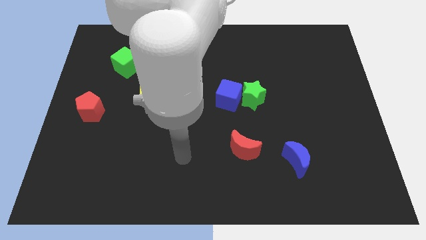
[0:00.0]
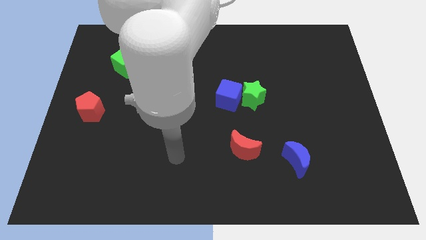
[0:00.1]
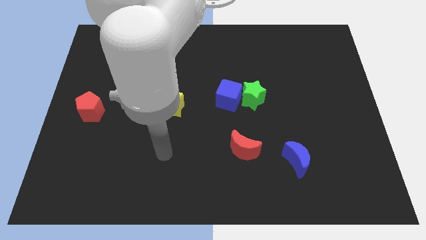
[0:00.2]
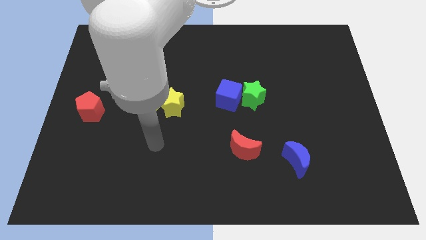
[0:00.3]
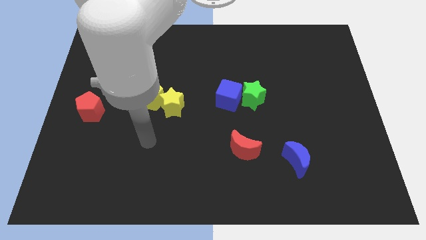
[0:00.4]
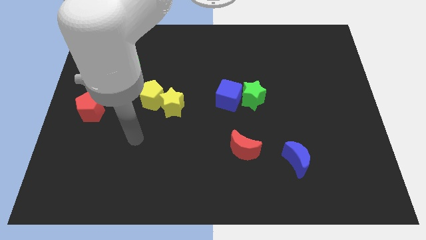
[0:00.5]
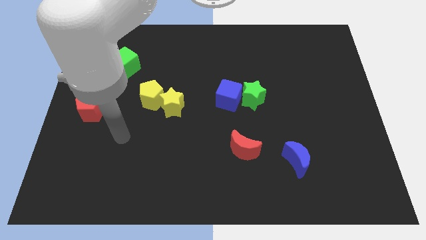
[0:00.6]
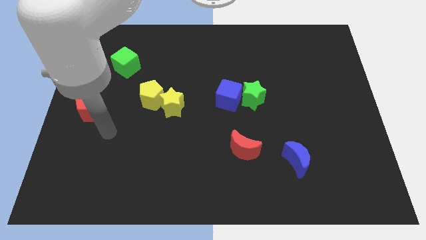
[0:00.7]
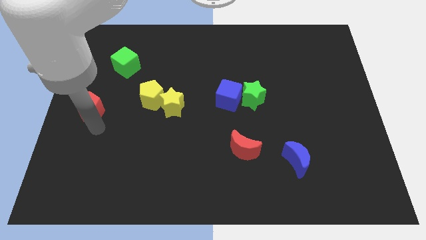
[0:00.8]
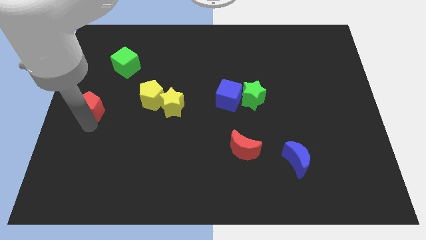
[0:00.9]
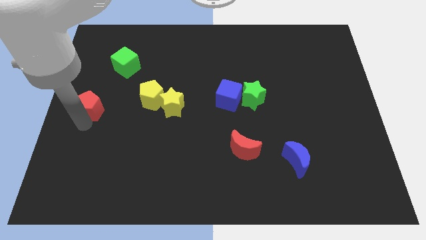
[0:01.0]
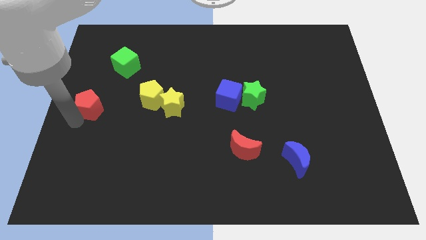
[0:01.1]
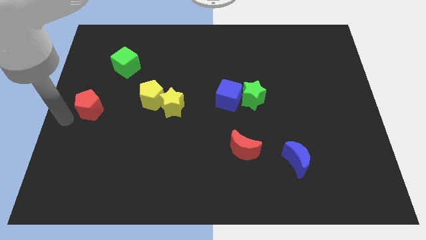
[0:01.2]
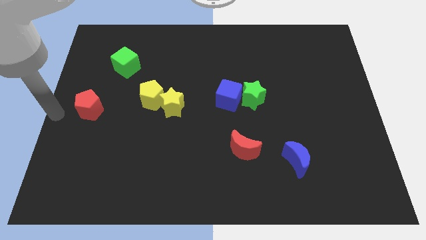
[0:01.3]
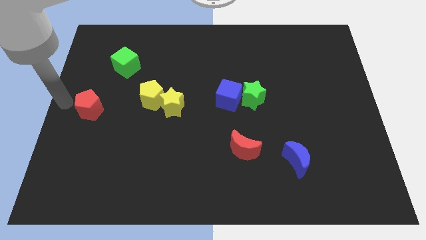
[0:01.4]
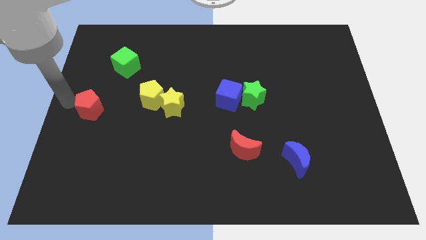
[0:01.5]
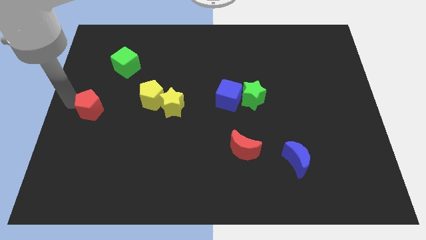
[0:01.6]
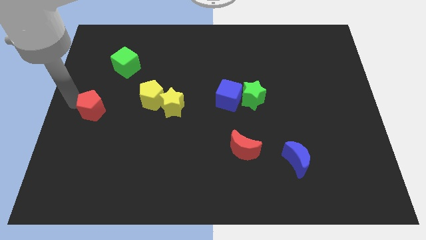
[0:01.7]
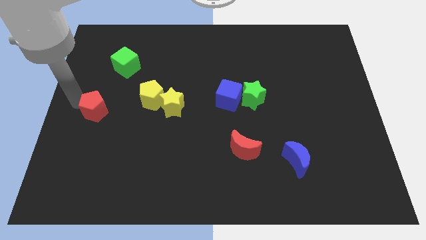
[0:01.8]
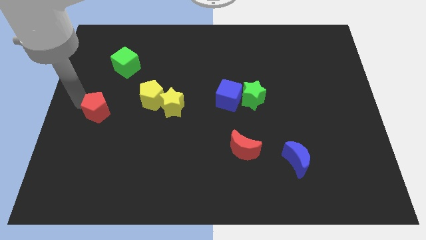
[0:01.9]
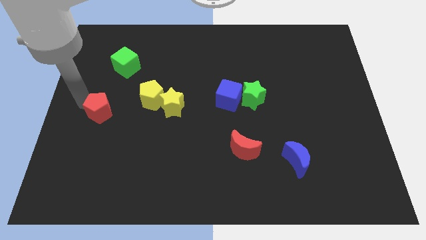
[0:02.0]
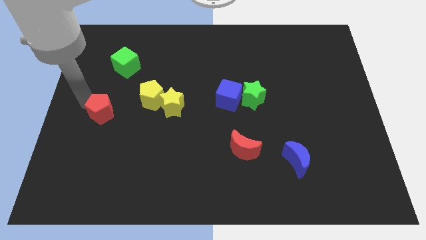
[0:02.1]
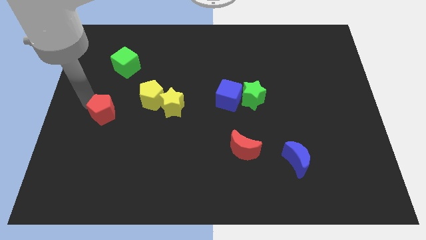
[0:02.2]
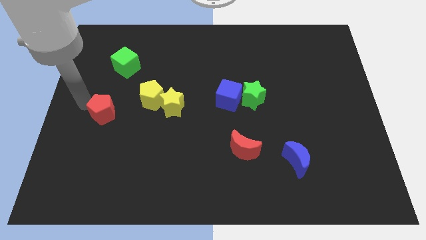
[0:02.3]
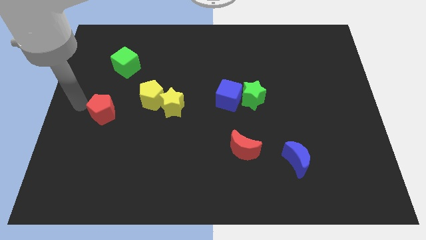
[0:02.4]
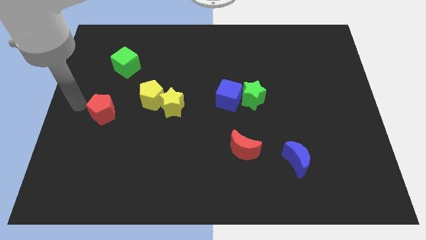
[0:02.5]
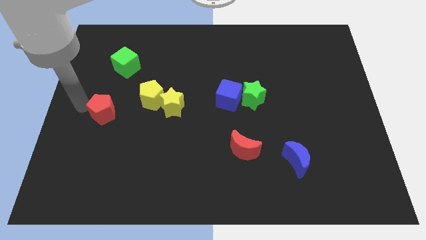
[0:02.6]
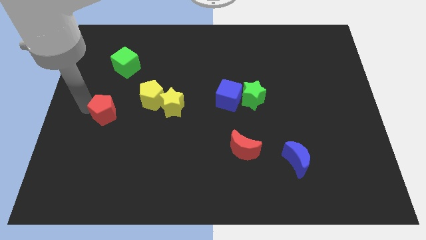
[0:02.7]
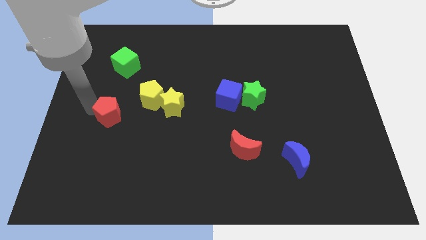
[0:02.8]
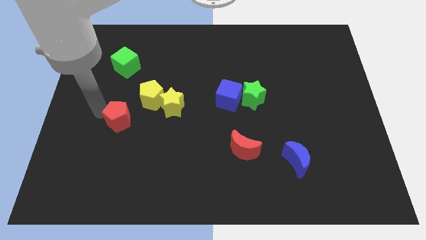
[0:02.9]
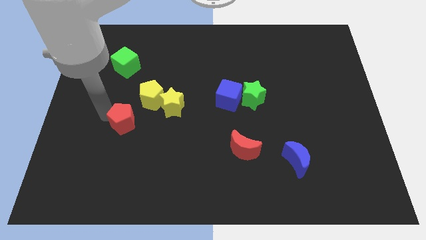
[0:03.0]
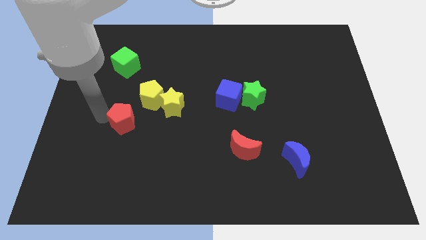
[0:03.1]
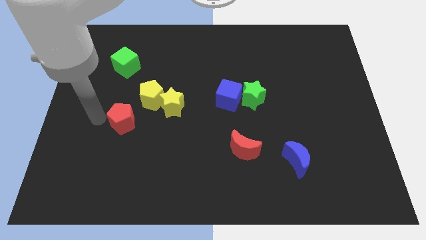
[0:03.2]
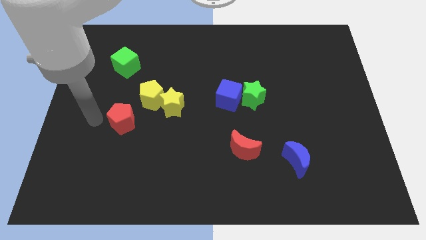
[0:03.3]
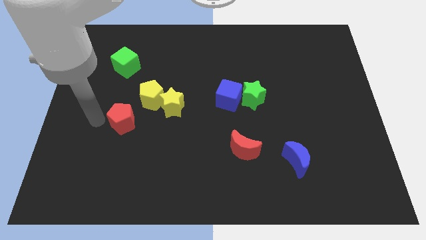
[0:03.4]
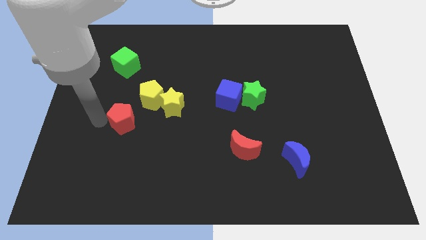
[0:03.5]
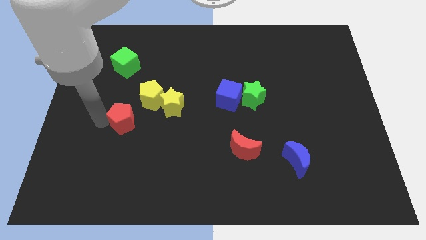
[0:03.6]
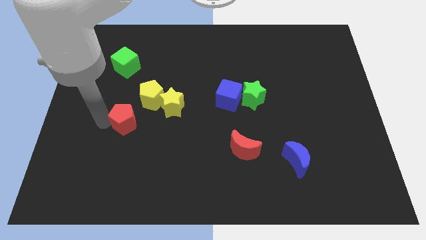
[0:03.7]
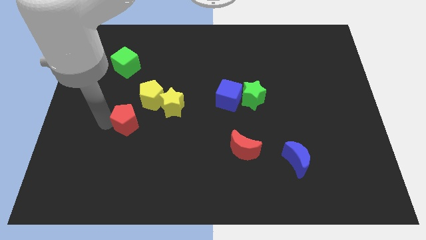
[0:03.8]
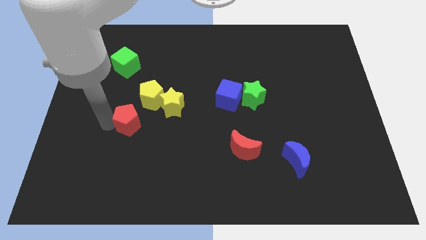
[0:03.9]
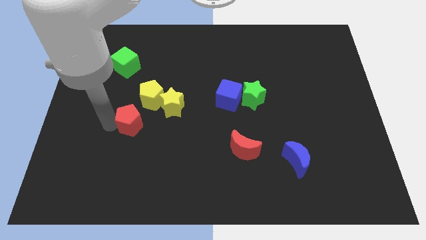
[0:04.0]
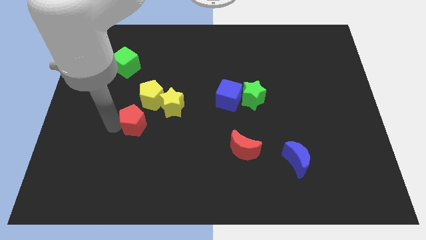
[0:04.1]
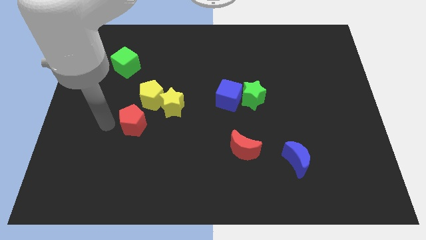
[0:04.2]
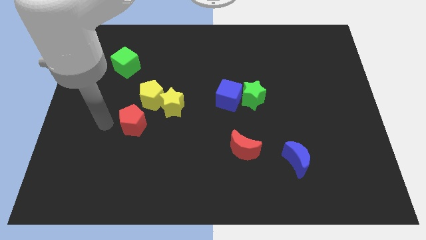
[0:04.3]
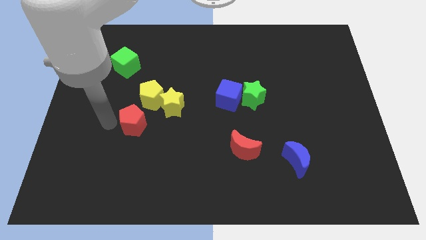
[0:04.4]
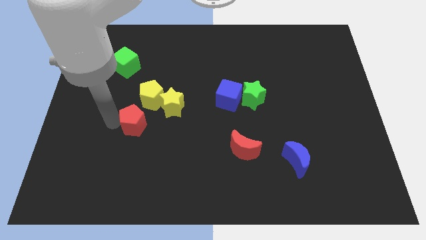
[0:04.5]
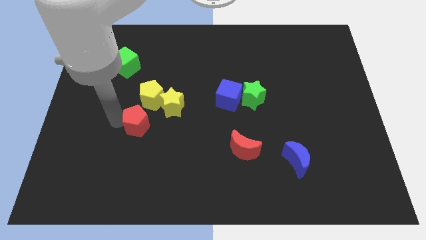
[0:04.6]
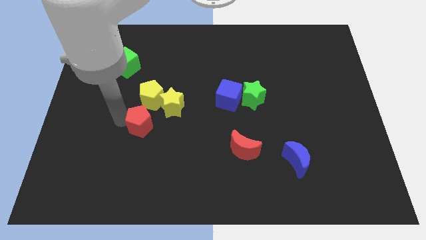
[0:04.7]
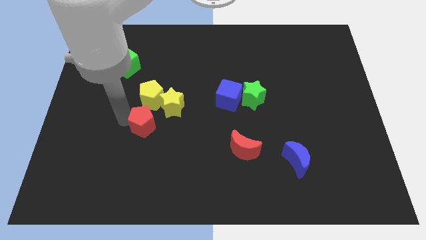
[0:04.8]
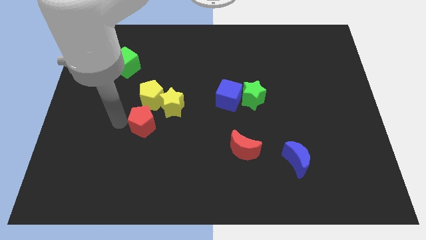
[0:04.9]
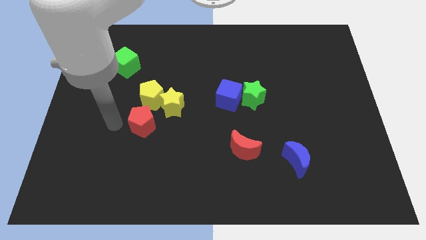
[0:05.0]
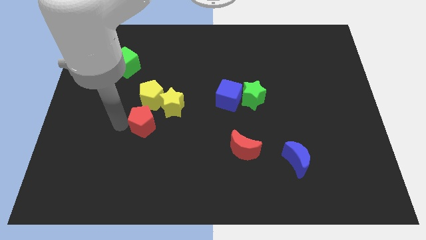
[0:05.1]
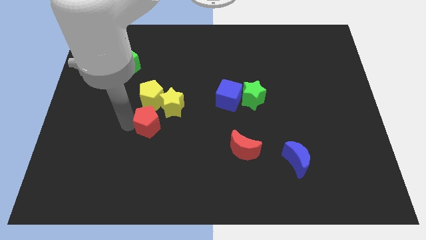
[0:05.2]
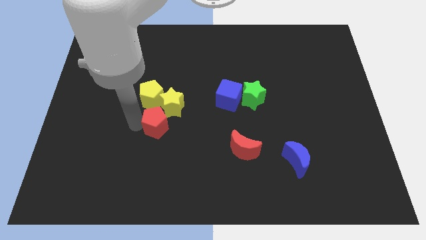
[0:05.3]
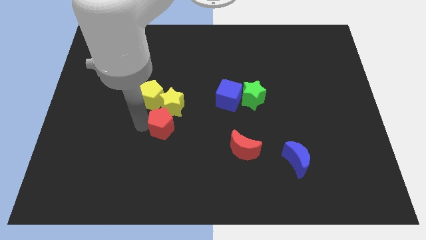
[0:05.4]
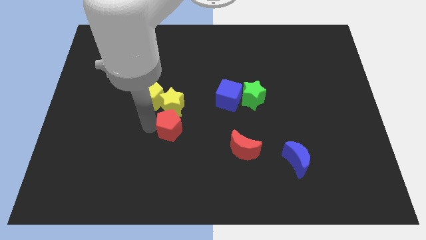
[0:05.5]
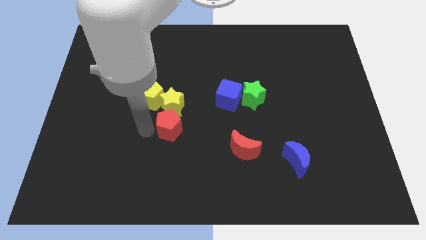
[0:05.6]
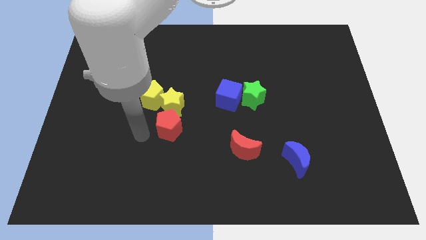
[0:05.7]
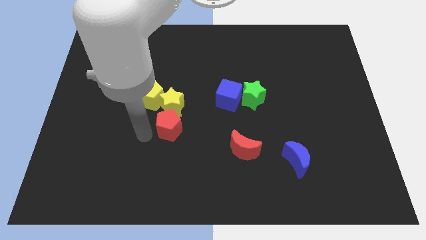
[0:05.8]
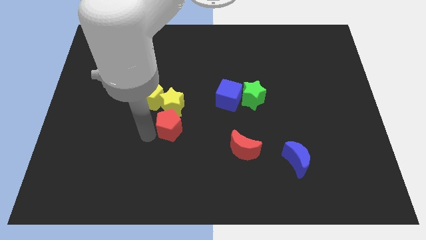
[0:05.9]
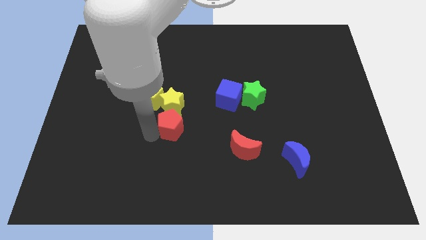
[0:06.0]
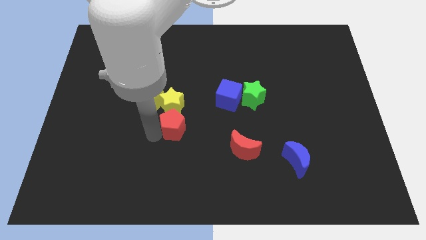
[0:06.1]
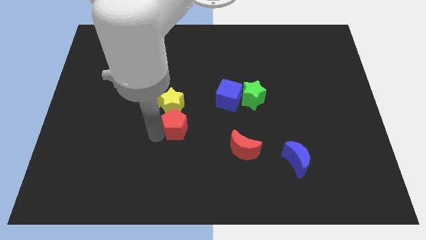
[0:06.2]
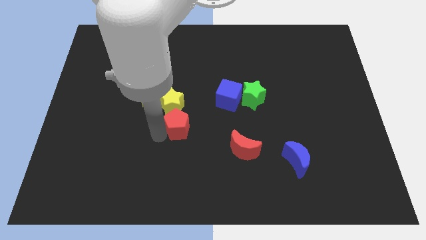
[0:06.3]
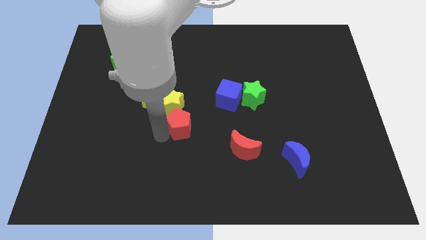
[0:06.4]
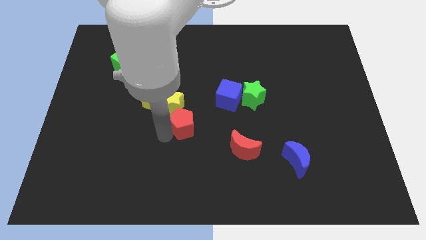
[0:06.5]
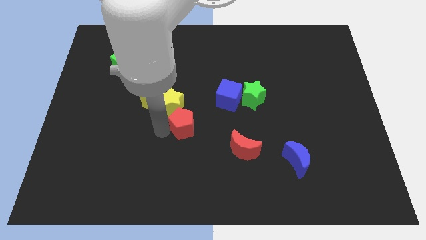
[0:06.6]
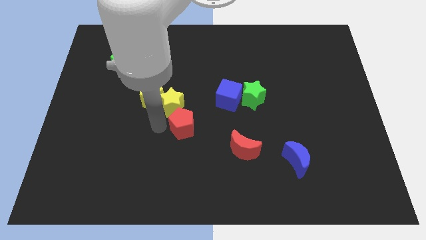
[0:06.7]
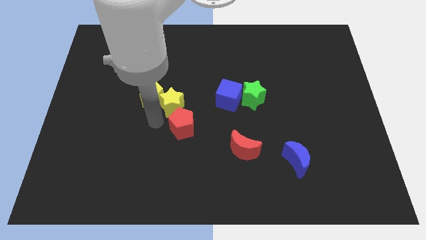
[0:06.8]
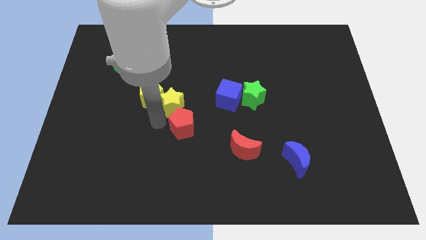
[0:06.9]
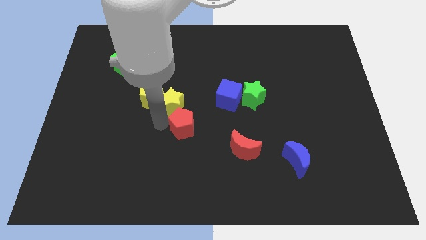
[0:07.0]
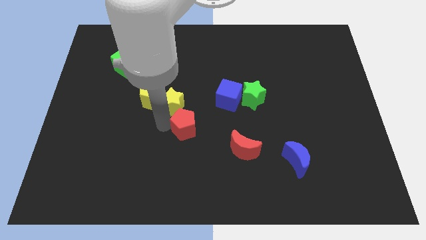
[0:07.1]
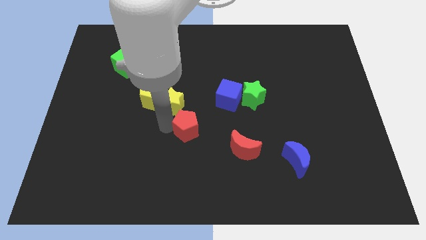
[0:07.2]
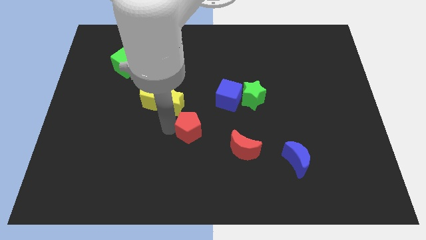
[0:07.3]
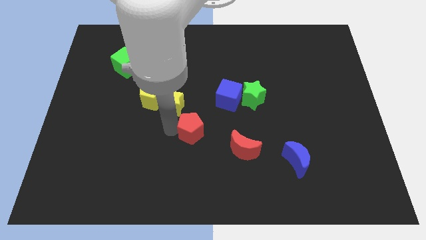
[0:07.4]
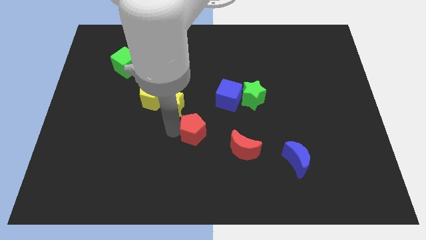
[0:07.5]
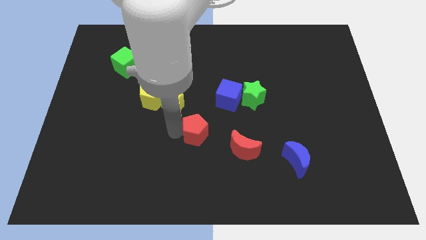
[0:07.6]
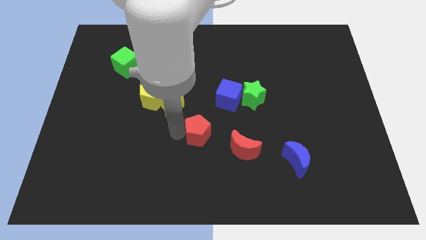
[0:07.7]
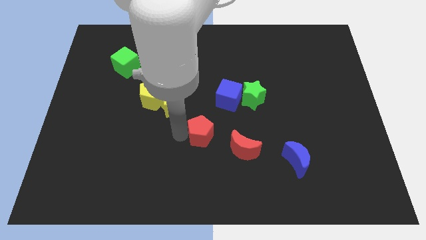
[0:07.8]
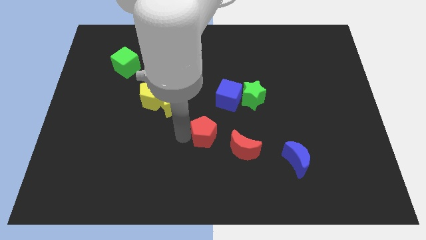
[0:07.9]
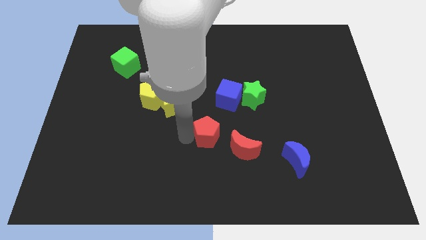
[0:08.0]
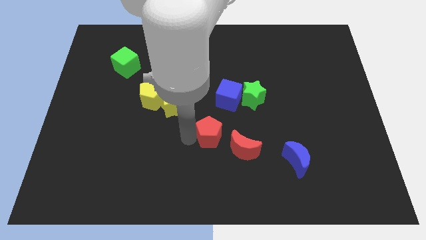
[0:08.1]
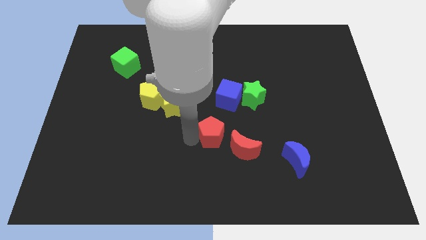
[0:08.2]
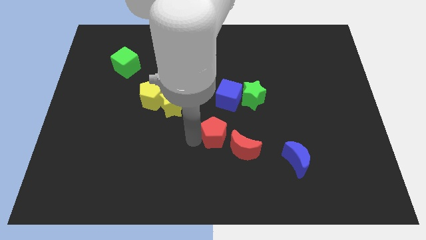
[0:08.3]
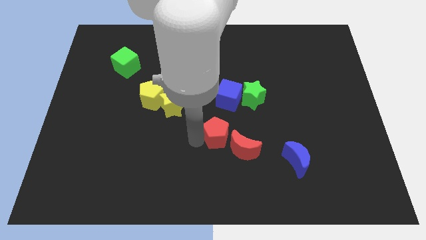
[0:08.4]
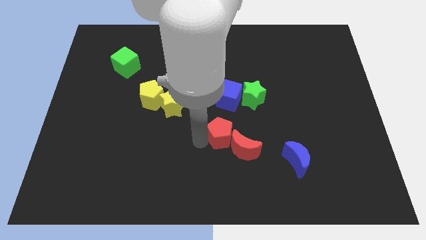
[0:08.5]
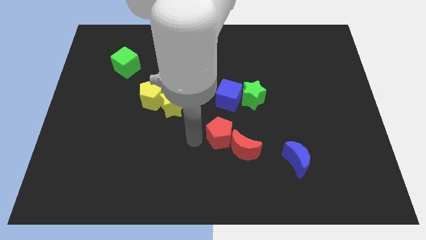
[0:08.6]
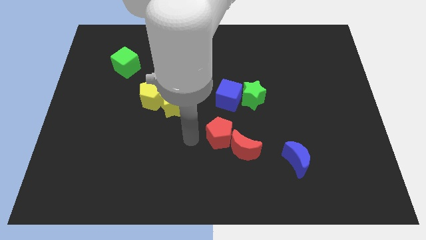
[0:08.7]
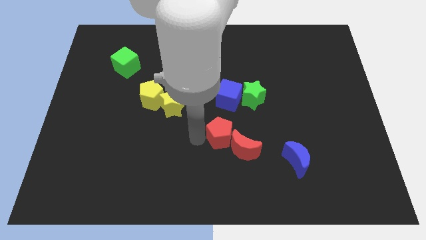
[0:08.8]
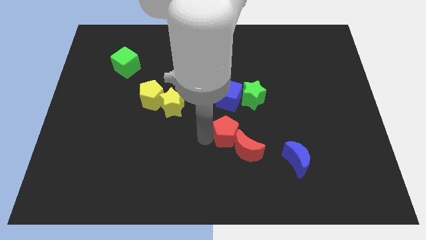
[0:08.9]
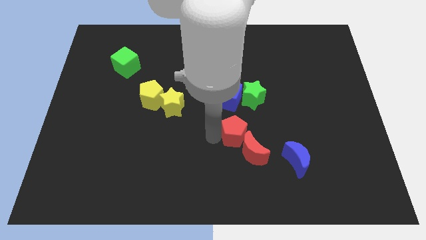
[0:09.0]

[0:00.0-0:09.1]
move the red pentagon below the green star
